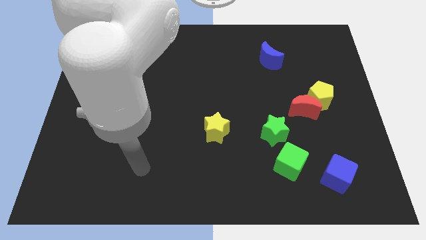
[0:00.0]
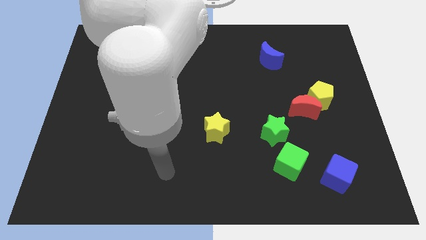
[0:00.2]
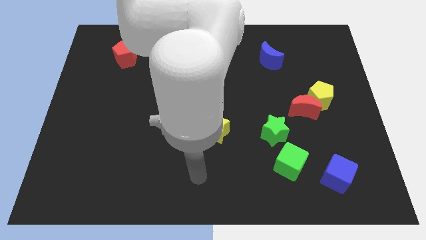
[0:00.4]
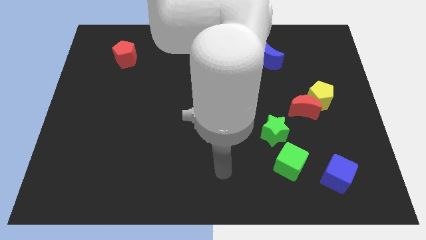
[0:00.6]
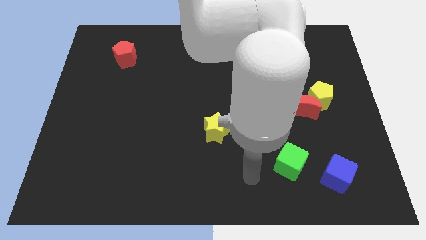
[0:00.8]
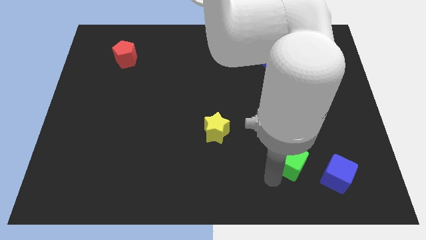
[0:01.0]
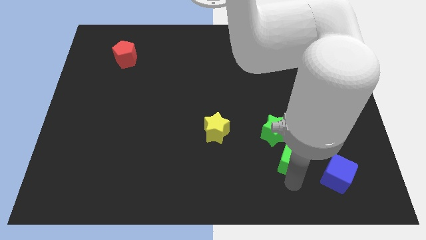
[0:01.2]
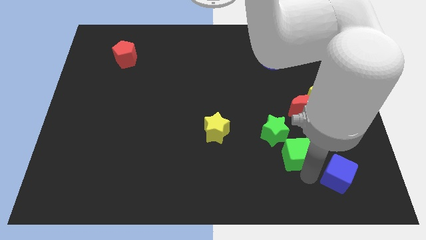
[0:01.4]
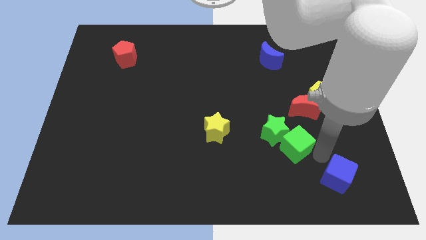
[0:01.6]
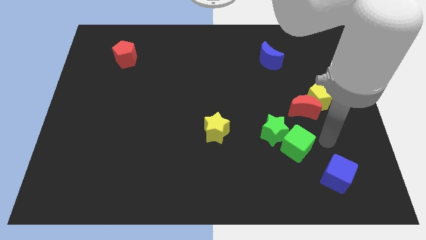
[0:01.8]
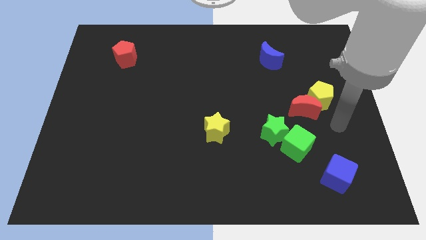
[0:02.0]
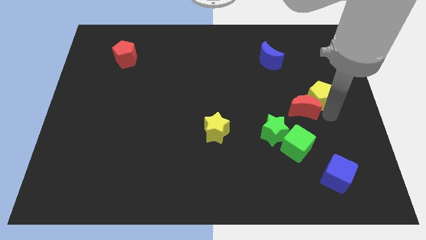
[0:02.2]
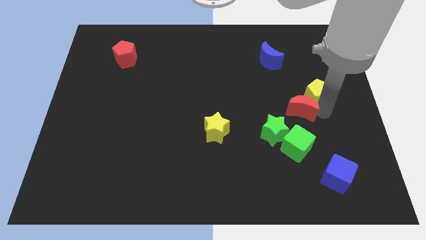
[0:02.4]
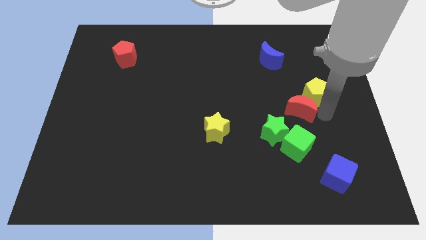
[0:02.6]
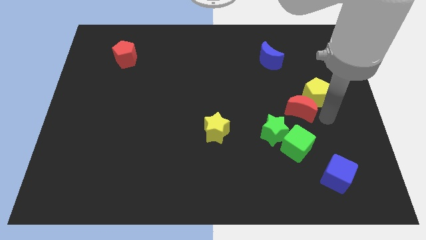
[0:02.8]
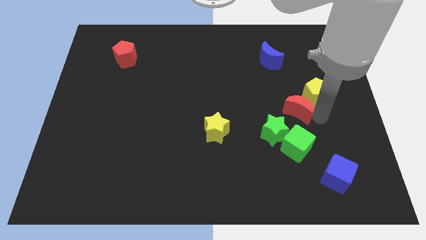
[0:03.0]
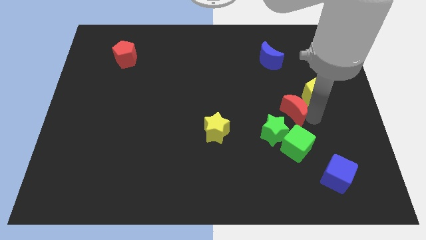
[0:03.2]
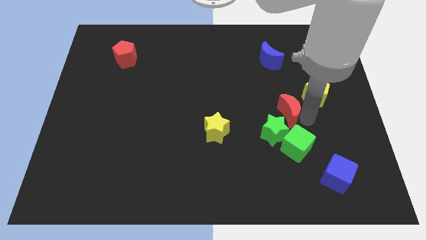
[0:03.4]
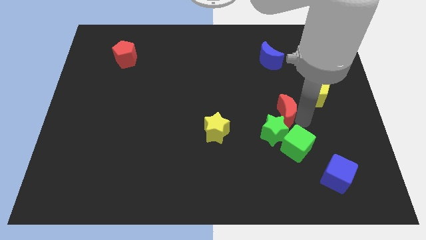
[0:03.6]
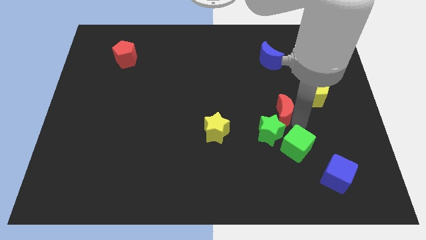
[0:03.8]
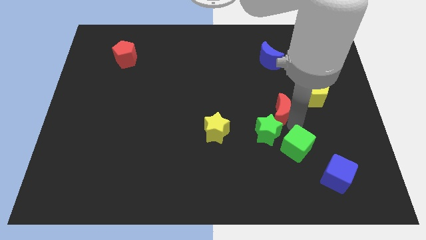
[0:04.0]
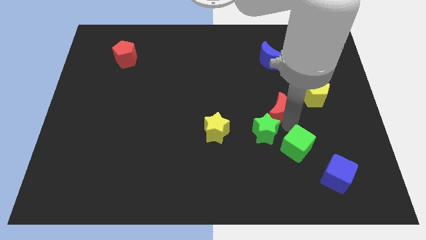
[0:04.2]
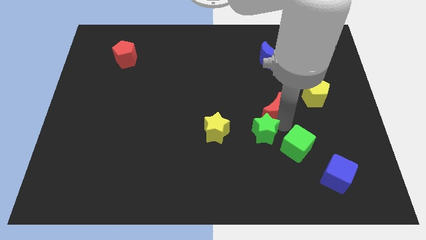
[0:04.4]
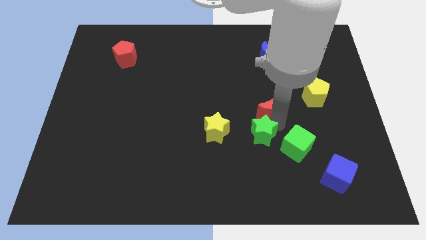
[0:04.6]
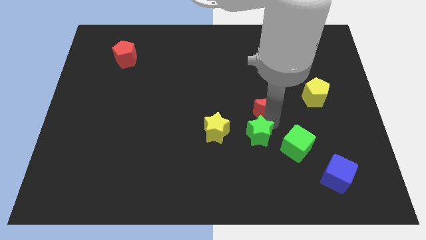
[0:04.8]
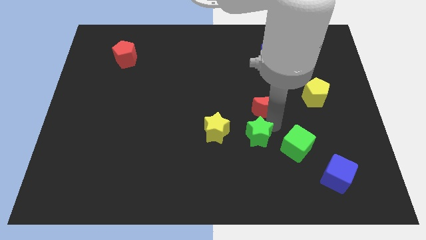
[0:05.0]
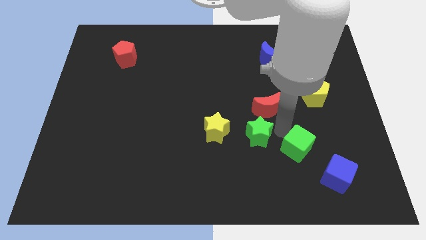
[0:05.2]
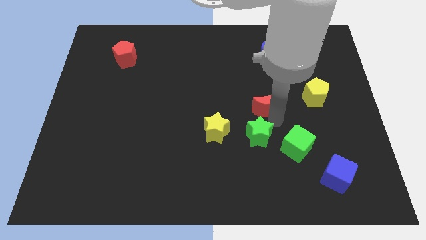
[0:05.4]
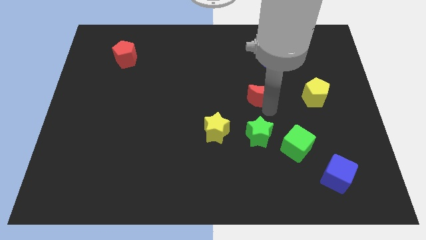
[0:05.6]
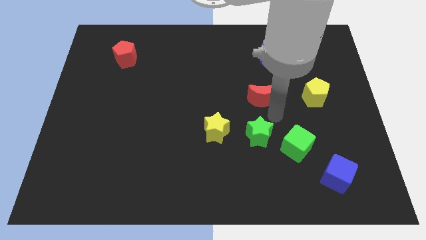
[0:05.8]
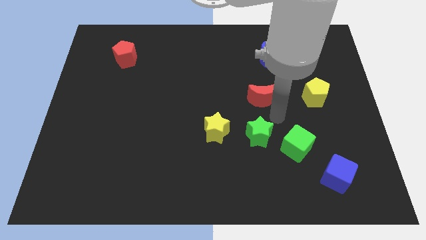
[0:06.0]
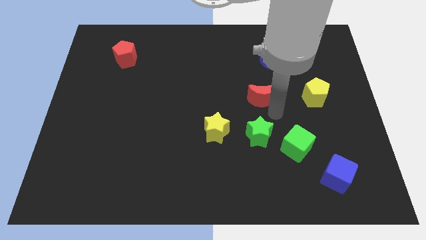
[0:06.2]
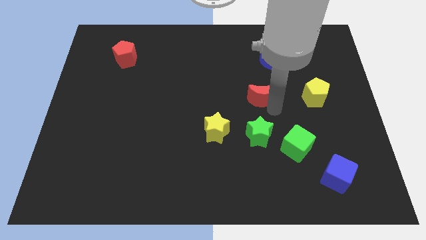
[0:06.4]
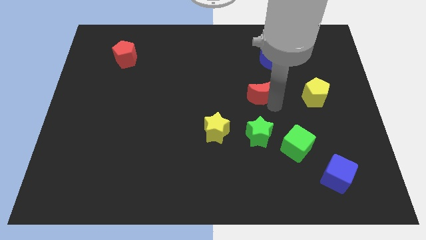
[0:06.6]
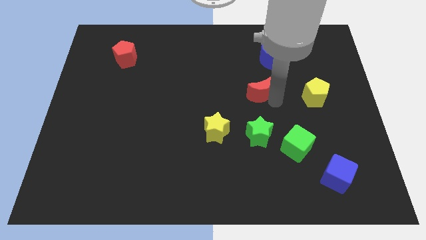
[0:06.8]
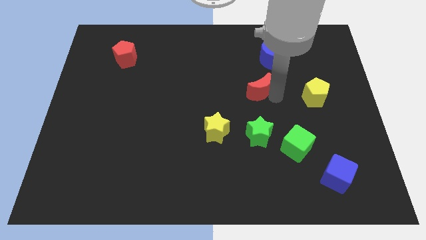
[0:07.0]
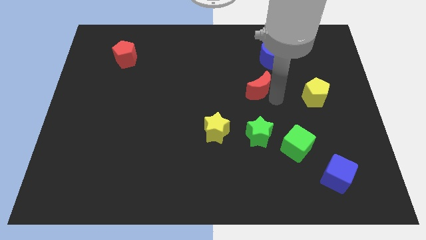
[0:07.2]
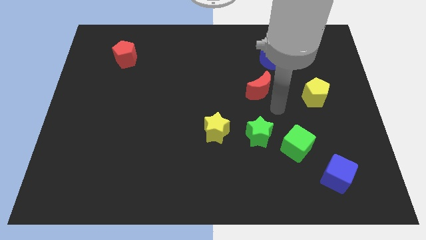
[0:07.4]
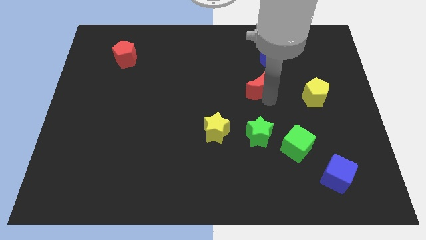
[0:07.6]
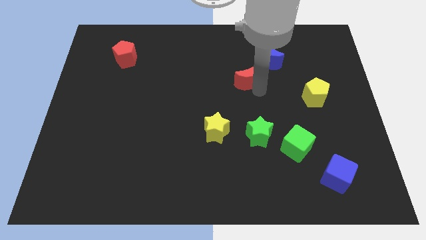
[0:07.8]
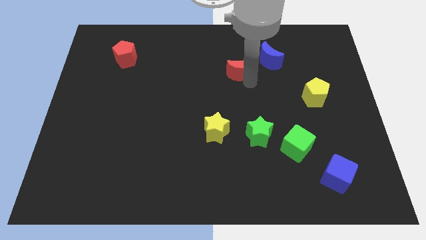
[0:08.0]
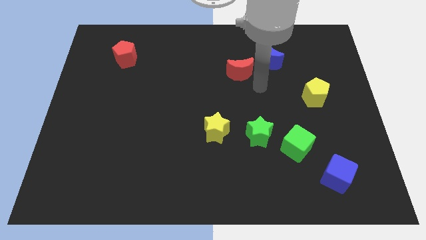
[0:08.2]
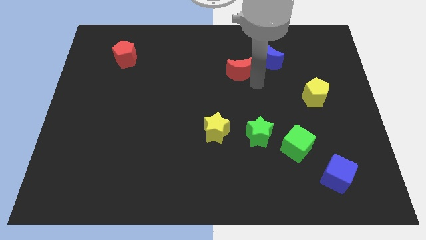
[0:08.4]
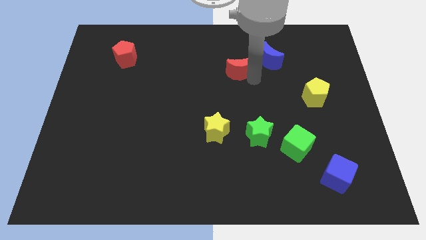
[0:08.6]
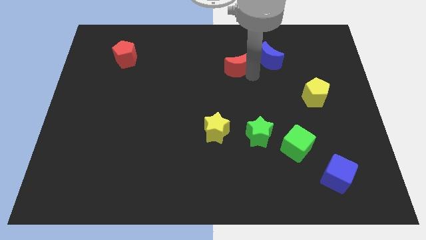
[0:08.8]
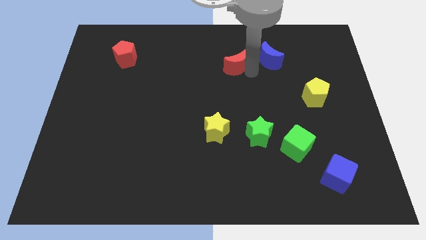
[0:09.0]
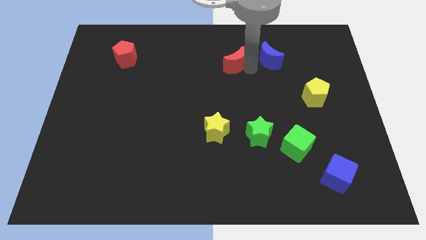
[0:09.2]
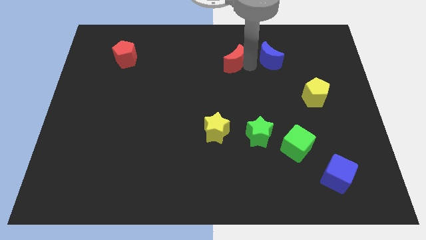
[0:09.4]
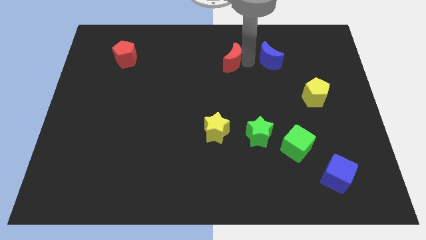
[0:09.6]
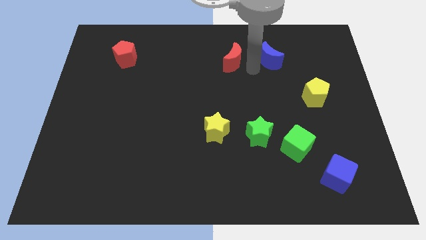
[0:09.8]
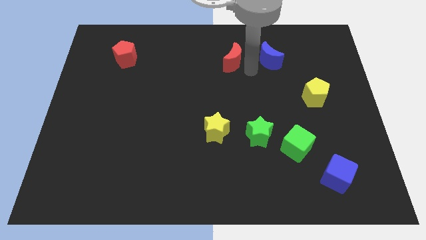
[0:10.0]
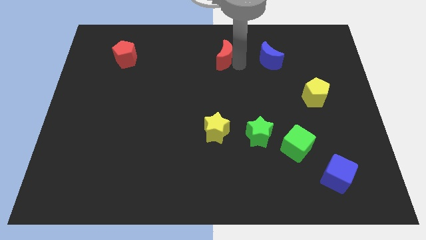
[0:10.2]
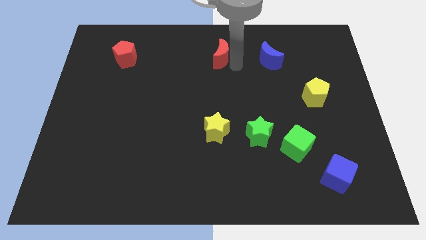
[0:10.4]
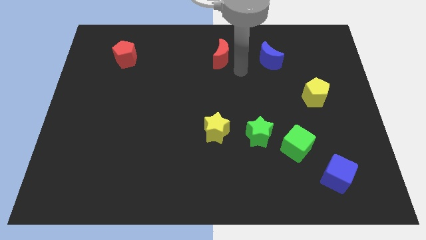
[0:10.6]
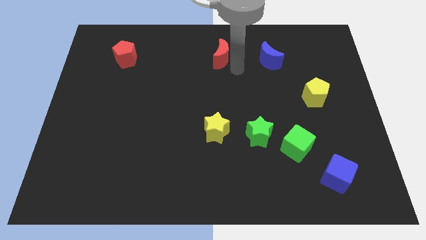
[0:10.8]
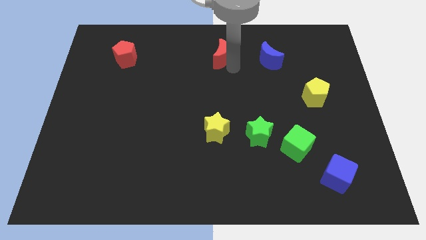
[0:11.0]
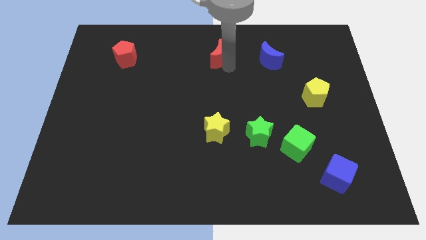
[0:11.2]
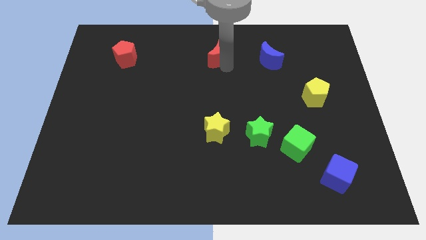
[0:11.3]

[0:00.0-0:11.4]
move the red moon to the towards your base

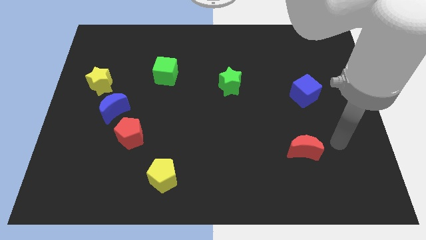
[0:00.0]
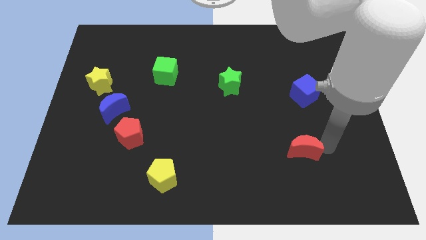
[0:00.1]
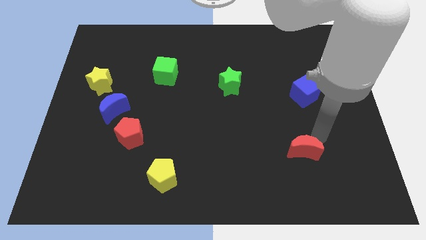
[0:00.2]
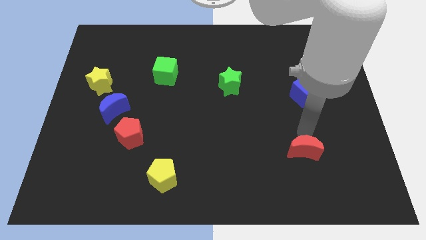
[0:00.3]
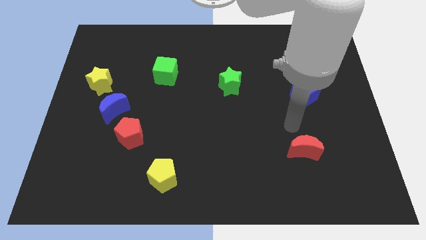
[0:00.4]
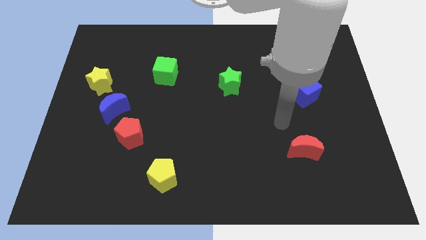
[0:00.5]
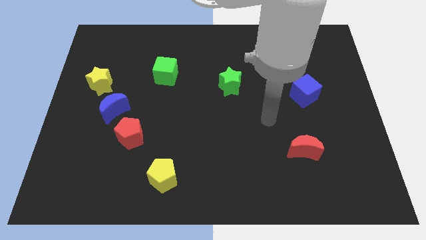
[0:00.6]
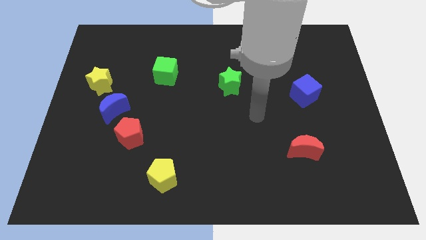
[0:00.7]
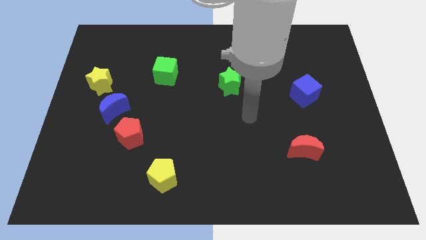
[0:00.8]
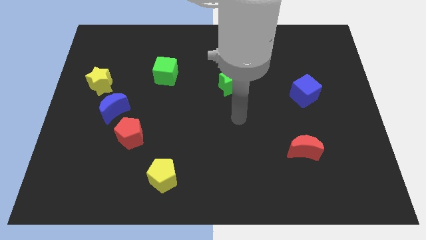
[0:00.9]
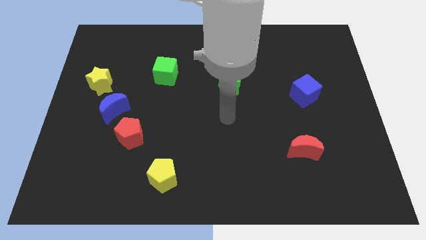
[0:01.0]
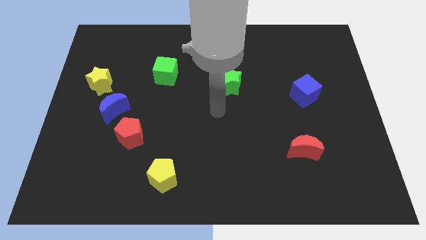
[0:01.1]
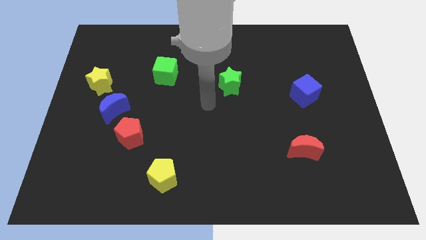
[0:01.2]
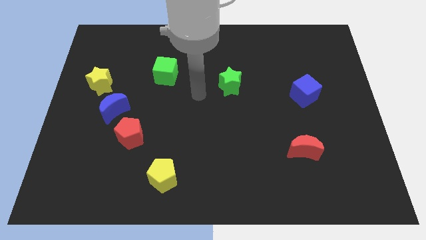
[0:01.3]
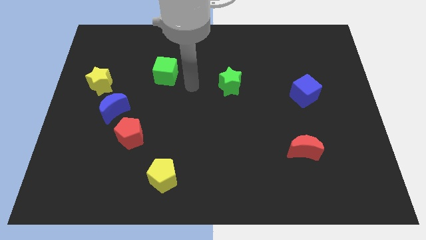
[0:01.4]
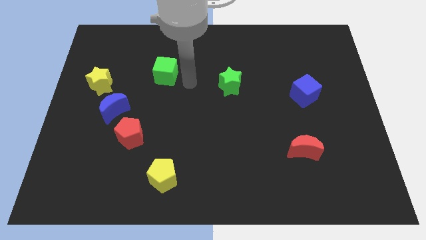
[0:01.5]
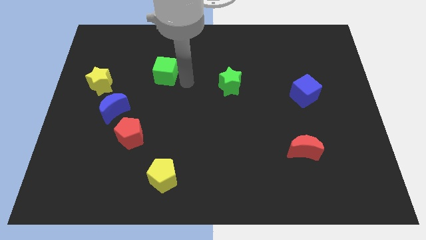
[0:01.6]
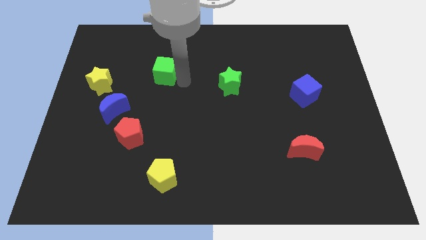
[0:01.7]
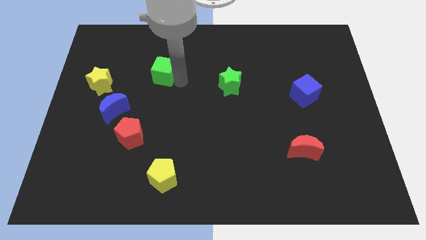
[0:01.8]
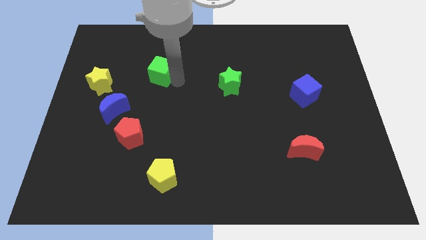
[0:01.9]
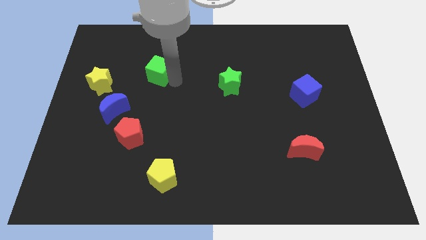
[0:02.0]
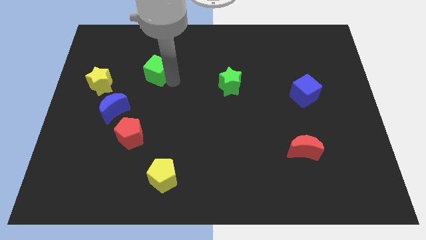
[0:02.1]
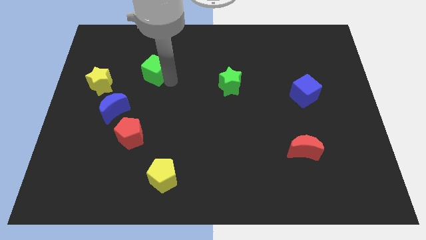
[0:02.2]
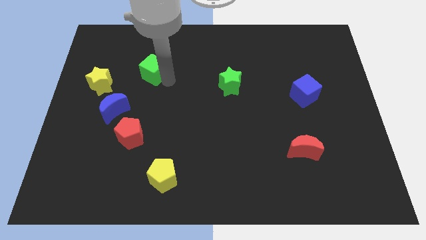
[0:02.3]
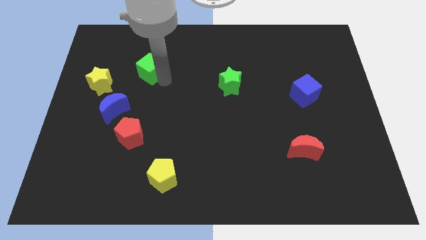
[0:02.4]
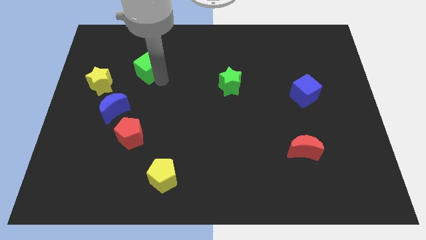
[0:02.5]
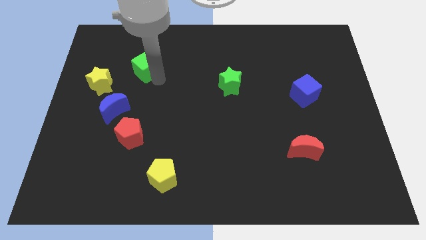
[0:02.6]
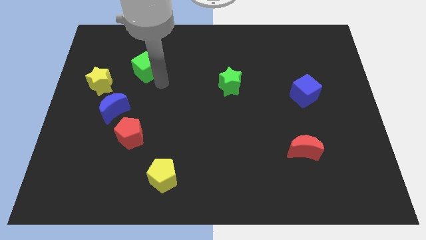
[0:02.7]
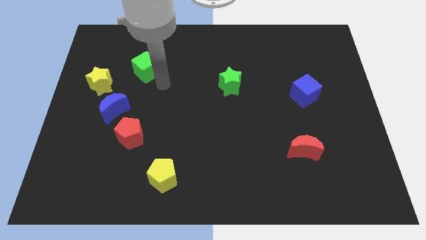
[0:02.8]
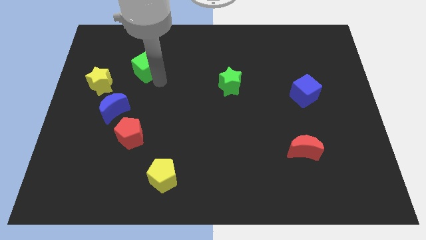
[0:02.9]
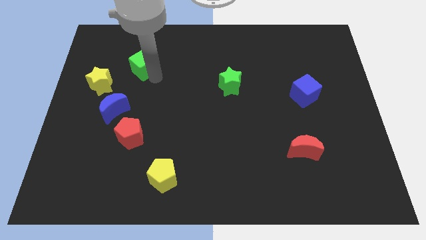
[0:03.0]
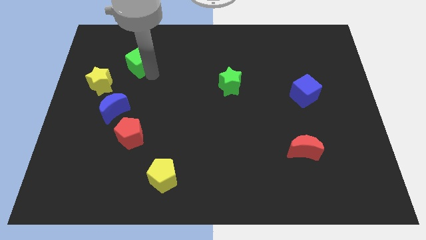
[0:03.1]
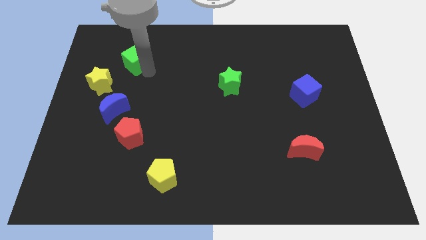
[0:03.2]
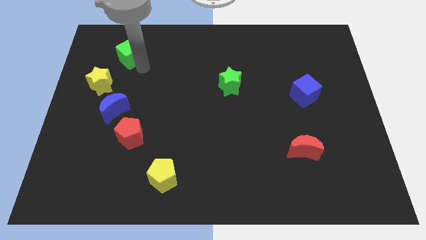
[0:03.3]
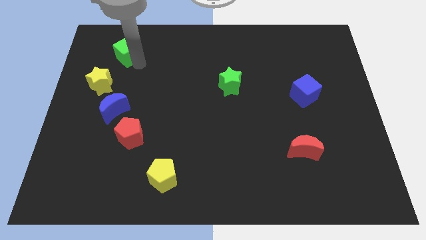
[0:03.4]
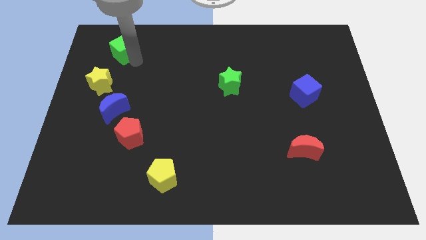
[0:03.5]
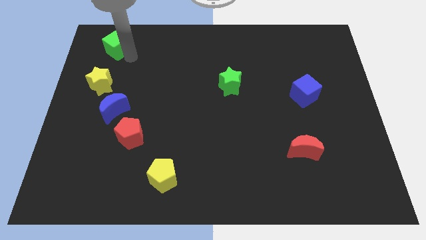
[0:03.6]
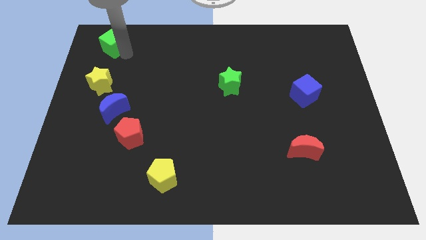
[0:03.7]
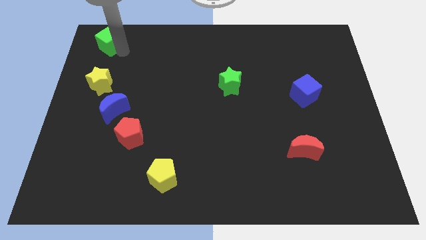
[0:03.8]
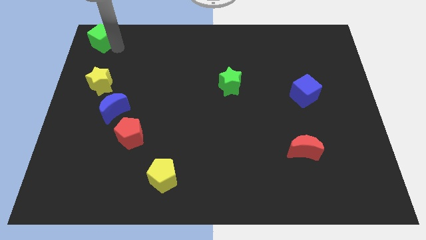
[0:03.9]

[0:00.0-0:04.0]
put the green cube to the upper left corner
